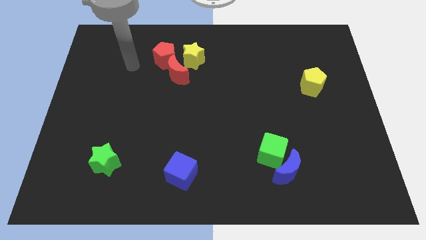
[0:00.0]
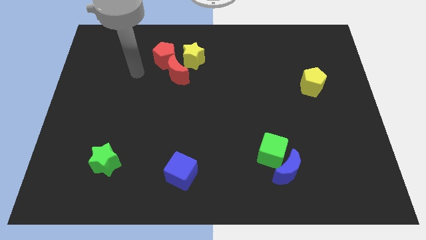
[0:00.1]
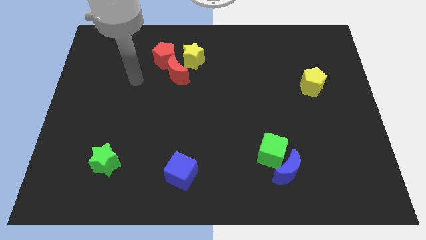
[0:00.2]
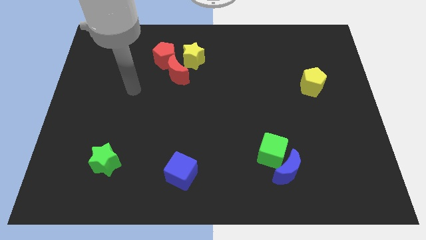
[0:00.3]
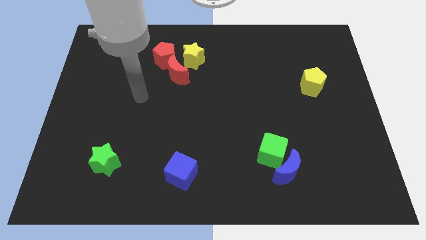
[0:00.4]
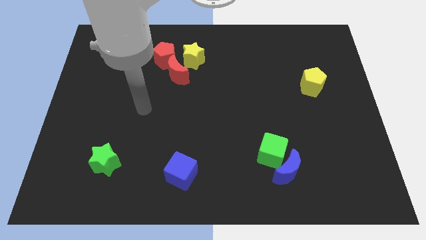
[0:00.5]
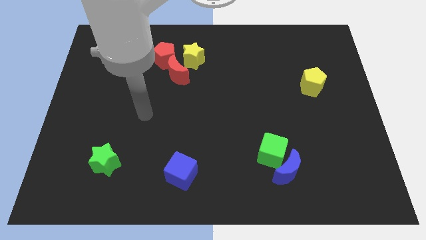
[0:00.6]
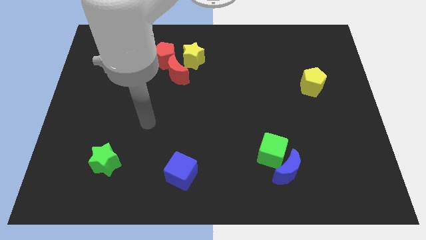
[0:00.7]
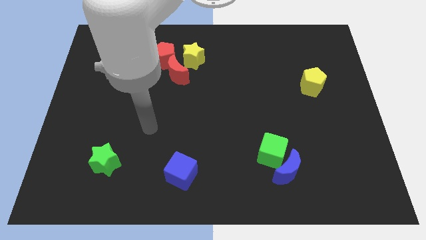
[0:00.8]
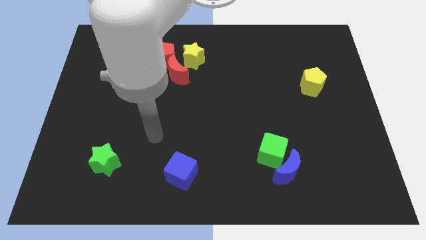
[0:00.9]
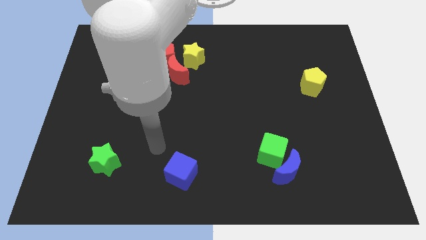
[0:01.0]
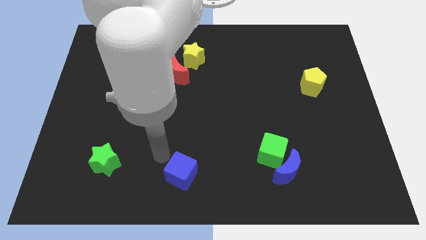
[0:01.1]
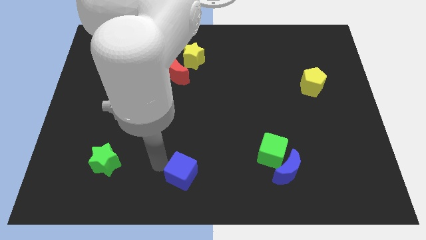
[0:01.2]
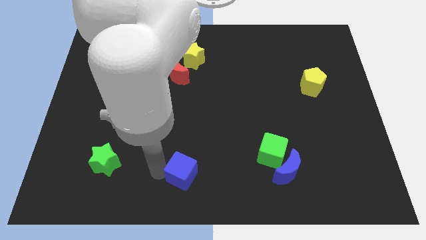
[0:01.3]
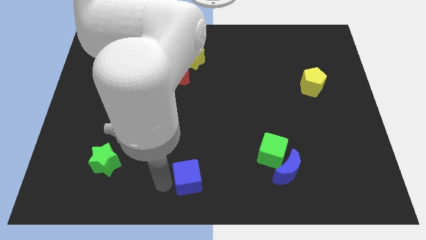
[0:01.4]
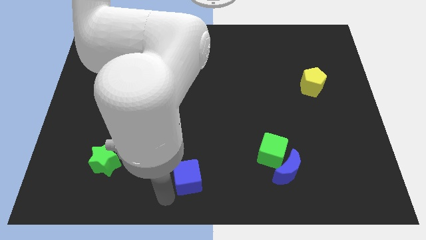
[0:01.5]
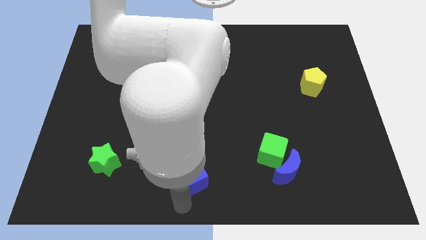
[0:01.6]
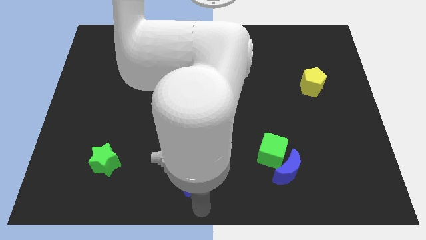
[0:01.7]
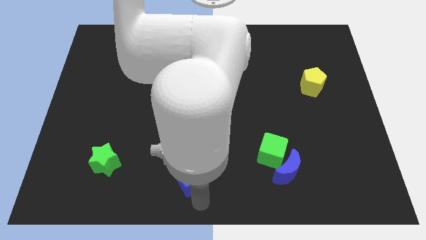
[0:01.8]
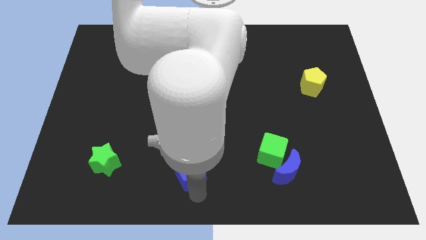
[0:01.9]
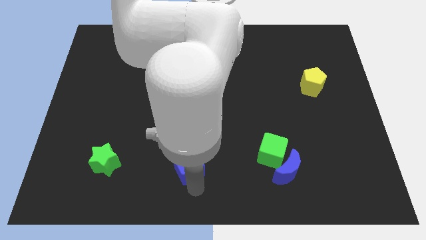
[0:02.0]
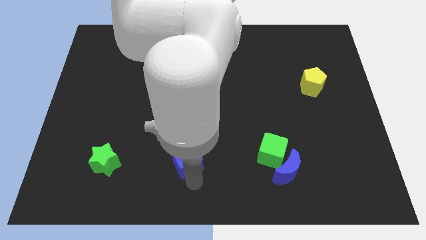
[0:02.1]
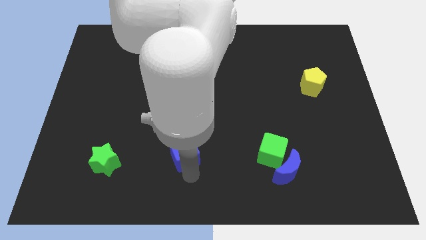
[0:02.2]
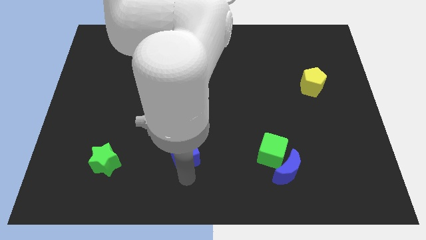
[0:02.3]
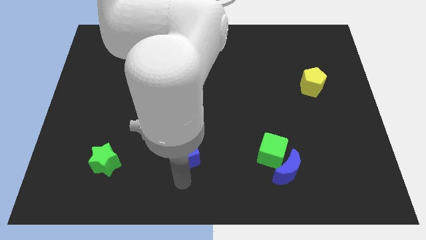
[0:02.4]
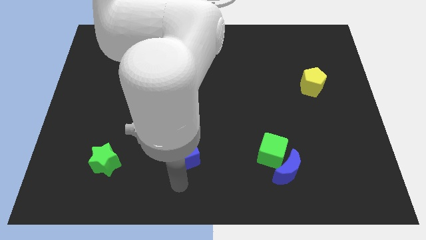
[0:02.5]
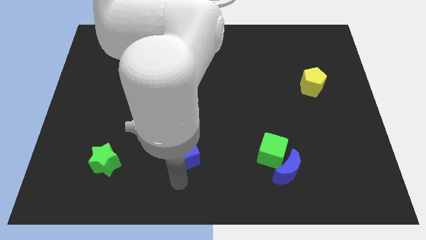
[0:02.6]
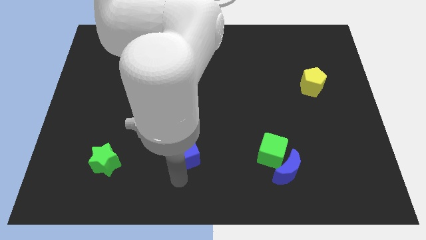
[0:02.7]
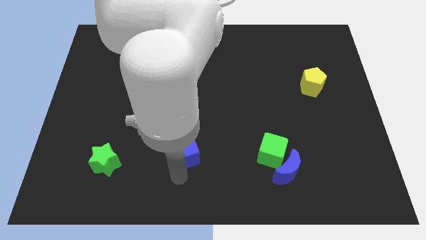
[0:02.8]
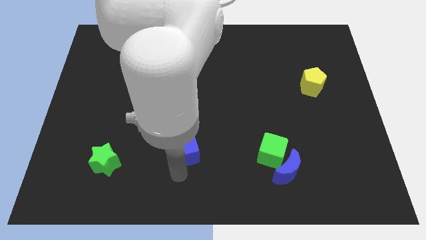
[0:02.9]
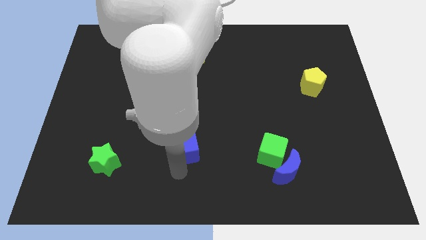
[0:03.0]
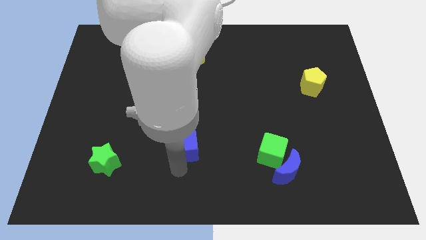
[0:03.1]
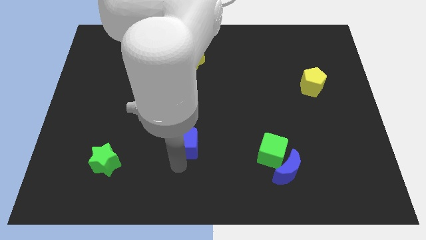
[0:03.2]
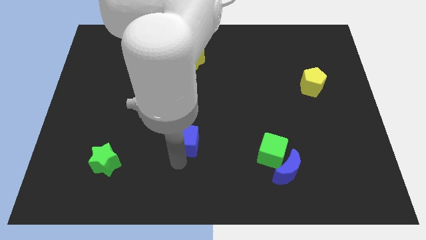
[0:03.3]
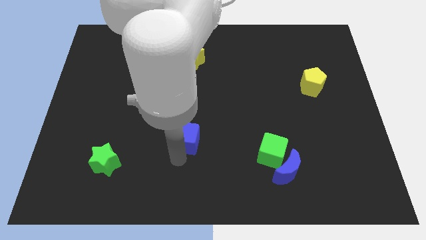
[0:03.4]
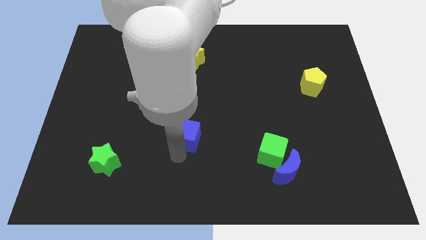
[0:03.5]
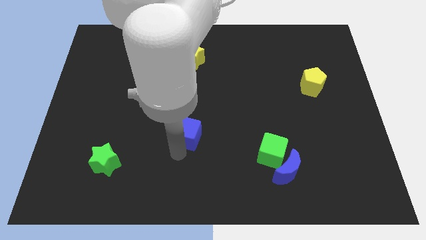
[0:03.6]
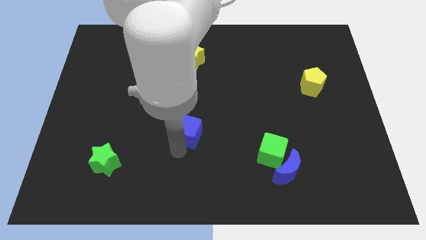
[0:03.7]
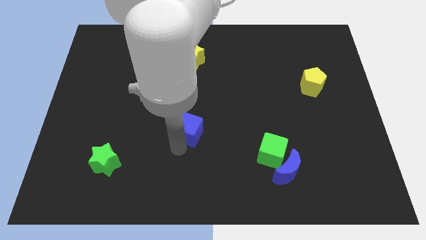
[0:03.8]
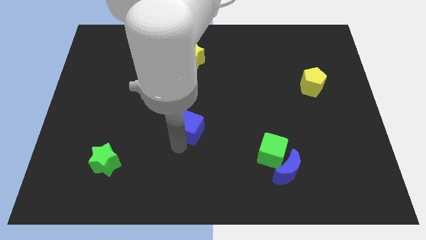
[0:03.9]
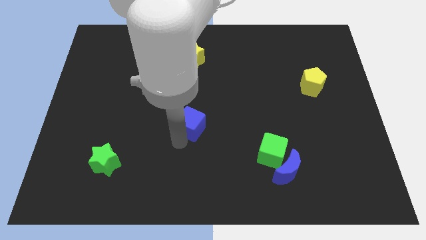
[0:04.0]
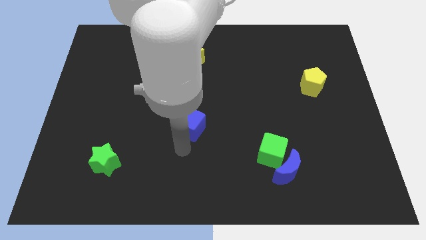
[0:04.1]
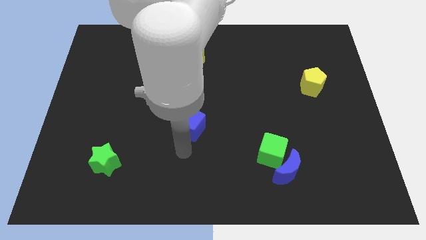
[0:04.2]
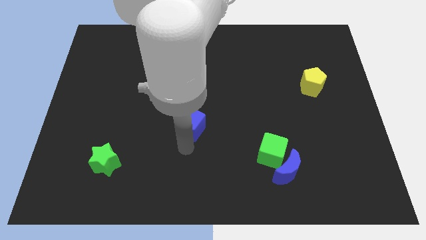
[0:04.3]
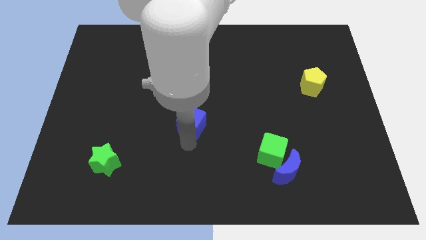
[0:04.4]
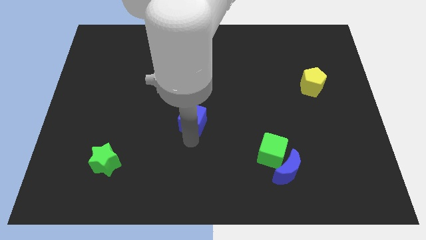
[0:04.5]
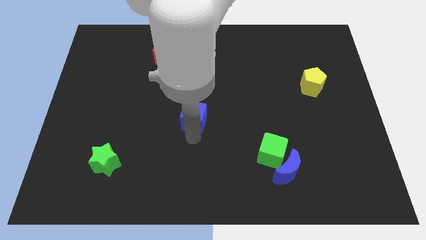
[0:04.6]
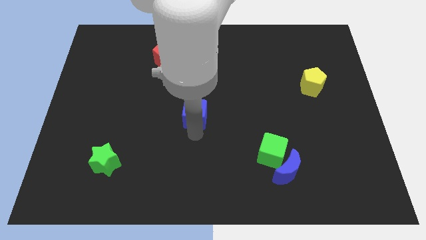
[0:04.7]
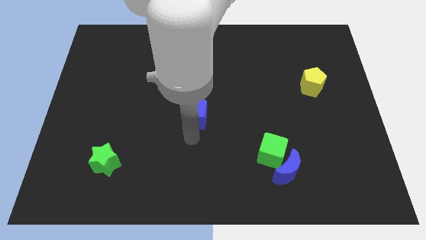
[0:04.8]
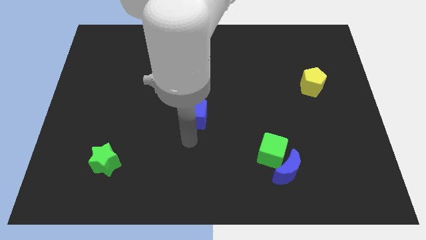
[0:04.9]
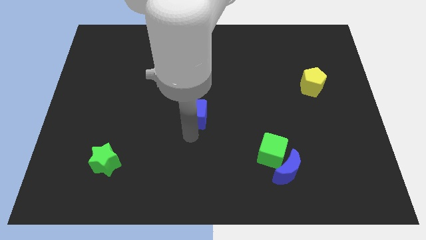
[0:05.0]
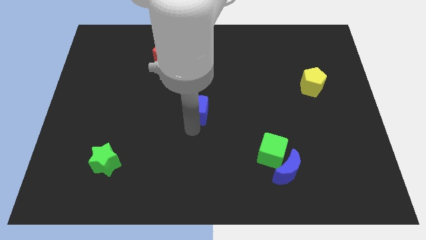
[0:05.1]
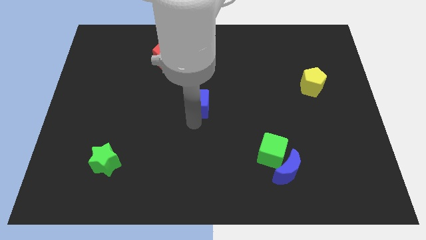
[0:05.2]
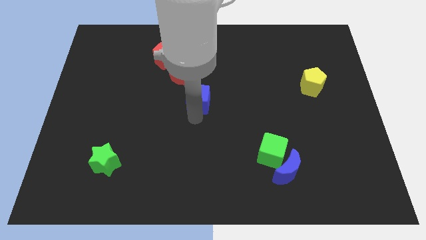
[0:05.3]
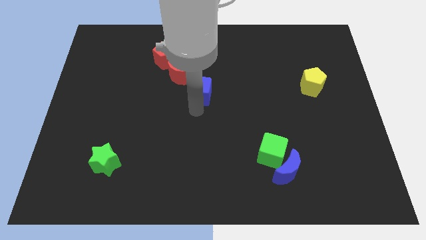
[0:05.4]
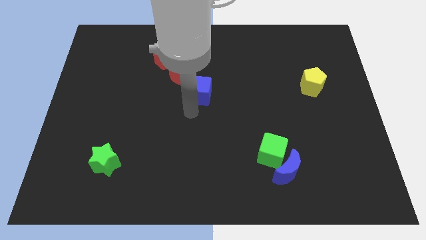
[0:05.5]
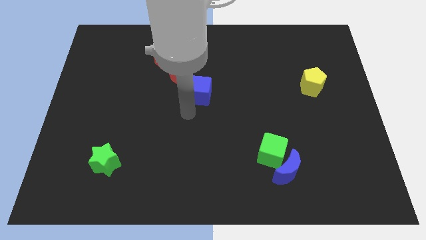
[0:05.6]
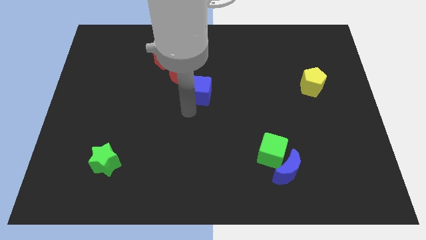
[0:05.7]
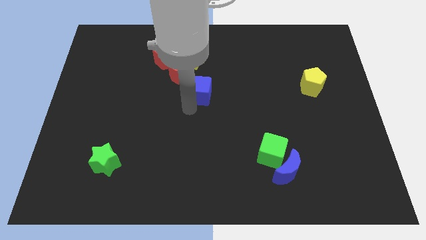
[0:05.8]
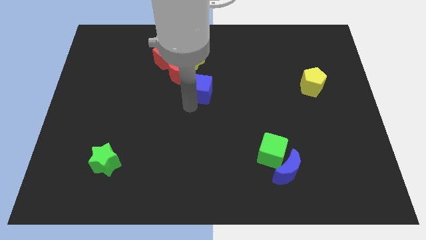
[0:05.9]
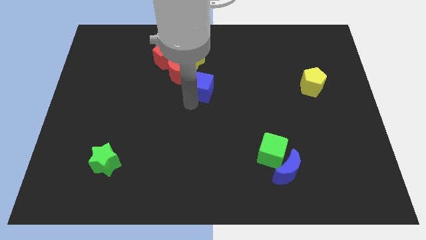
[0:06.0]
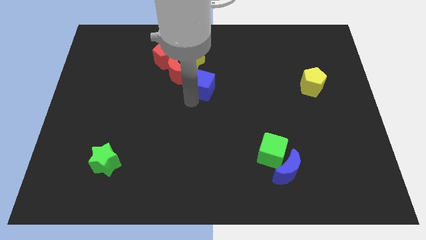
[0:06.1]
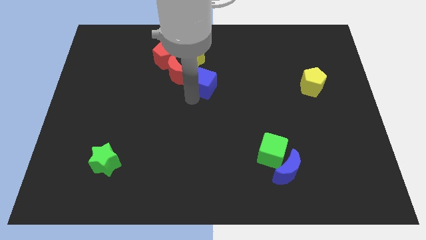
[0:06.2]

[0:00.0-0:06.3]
slide the blue cube diagonally down and to the right of the yellow star
